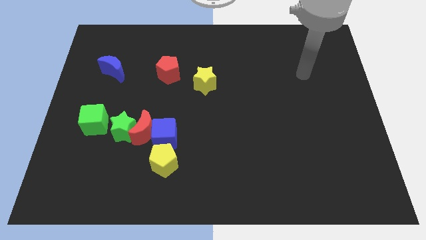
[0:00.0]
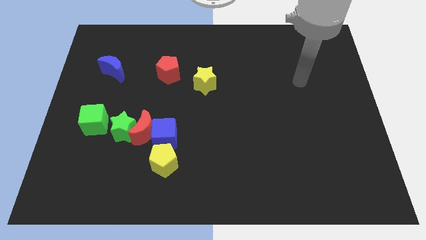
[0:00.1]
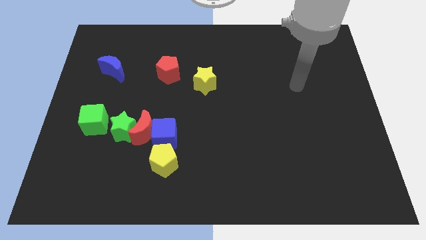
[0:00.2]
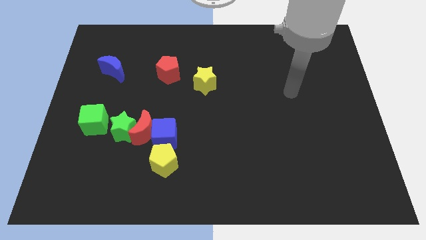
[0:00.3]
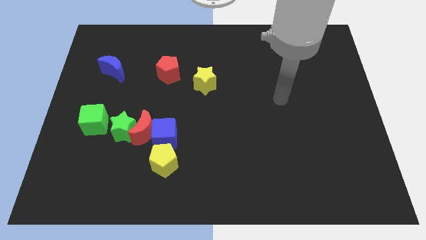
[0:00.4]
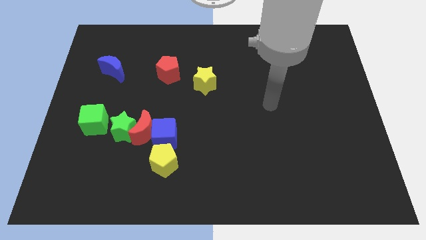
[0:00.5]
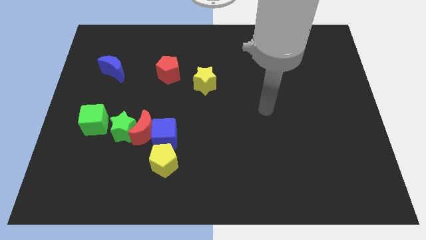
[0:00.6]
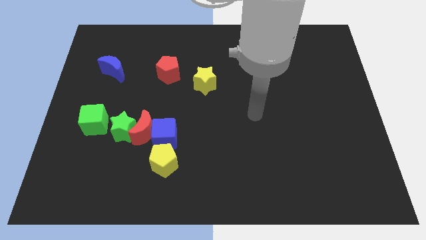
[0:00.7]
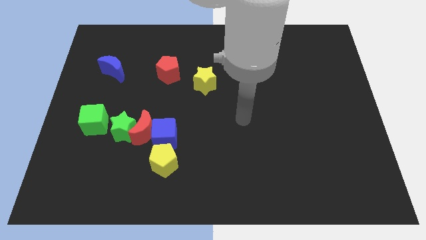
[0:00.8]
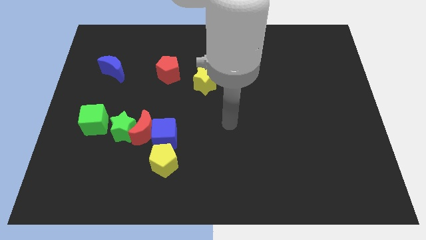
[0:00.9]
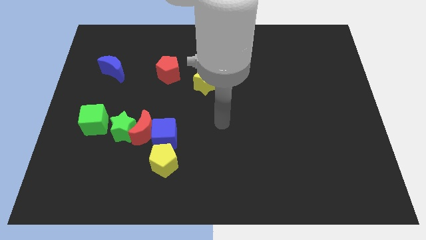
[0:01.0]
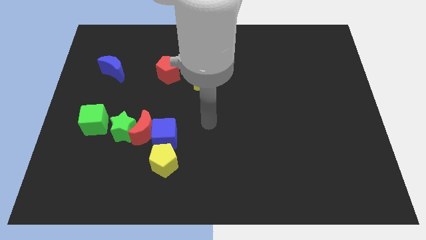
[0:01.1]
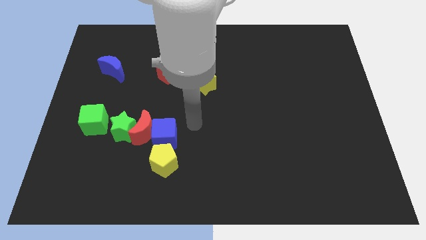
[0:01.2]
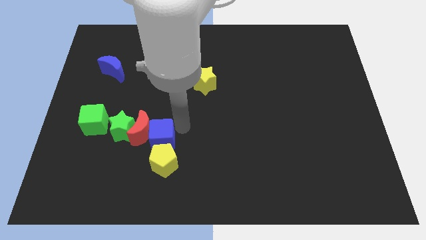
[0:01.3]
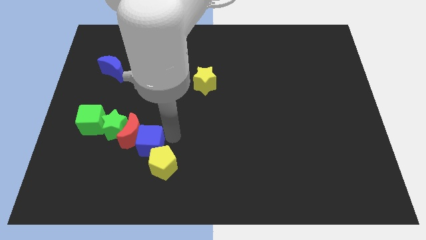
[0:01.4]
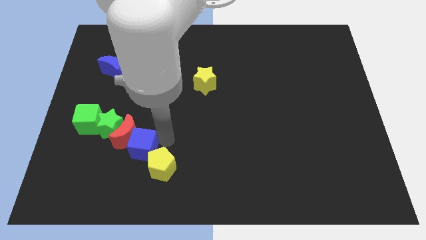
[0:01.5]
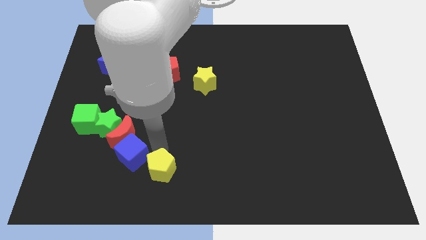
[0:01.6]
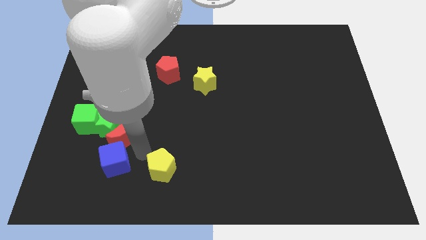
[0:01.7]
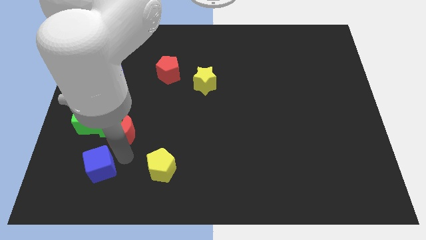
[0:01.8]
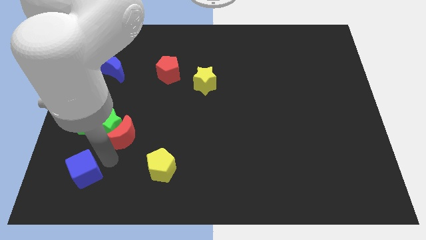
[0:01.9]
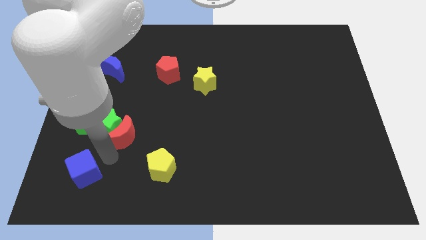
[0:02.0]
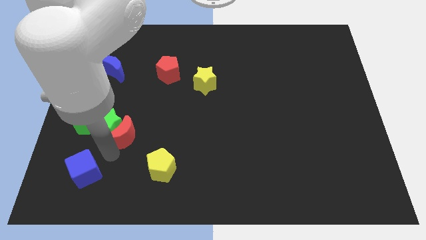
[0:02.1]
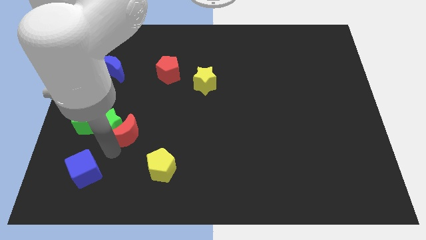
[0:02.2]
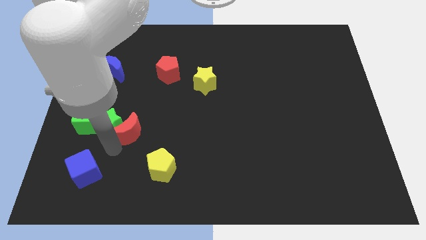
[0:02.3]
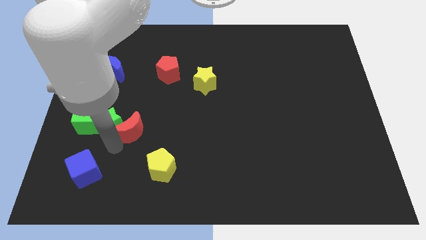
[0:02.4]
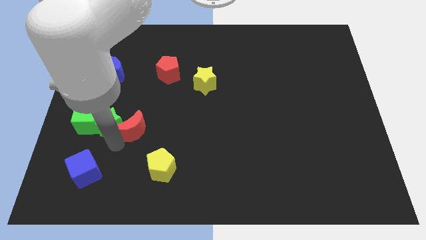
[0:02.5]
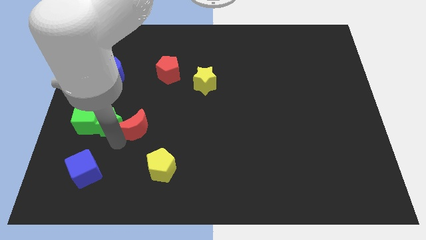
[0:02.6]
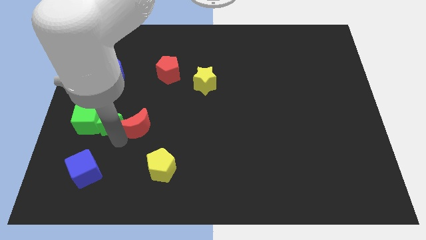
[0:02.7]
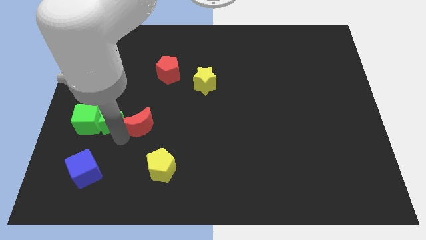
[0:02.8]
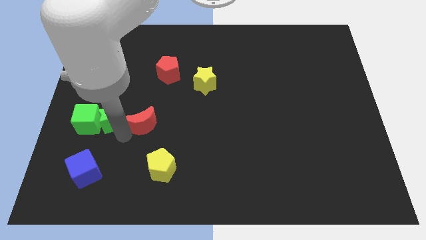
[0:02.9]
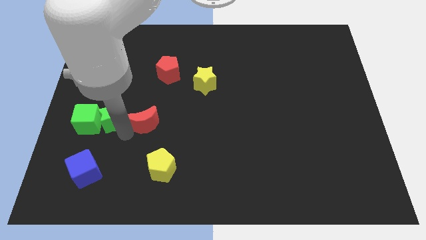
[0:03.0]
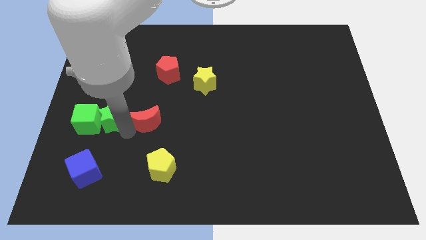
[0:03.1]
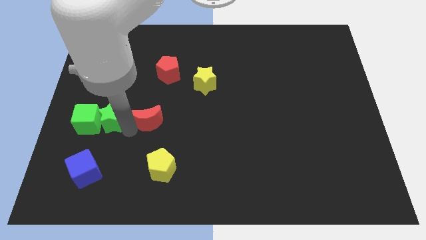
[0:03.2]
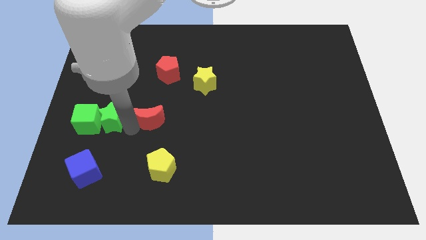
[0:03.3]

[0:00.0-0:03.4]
separate the red moon from the green star, blue cube, and yellow pentagon

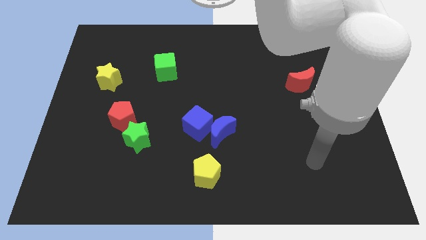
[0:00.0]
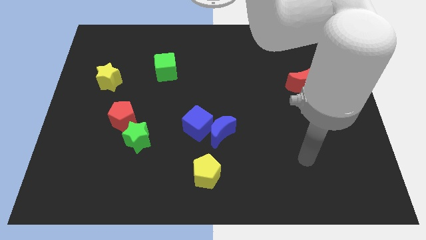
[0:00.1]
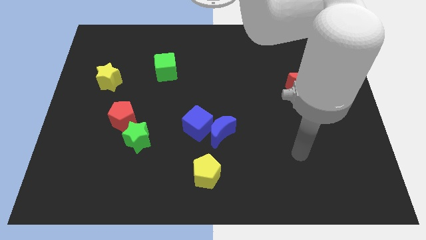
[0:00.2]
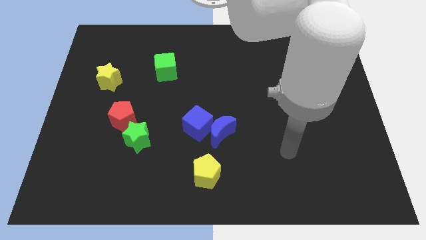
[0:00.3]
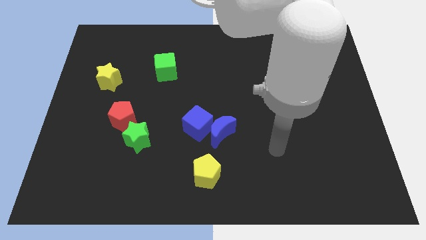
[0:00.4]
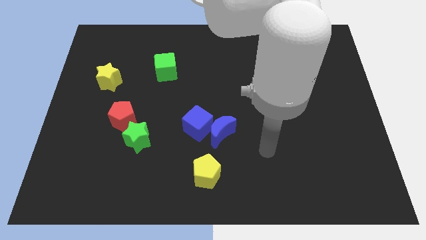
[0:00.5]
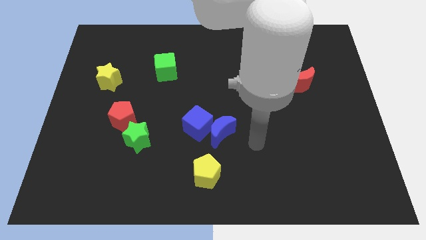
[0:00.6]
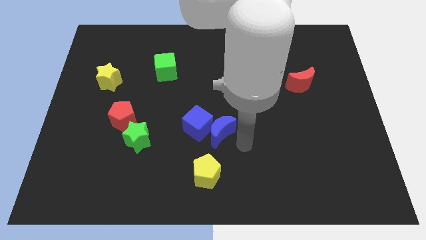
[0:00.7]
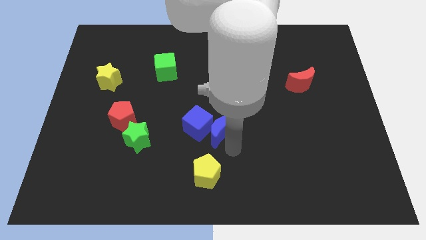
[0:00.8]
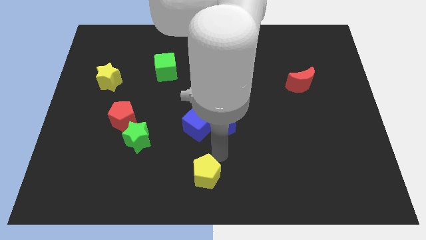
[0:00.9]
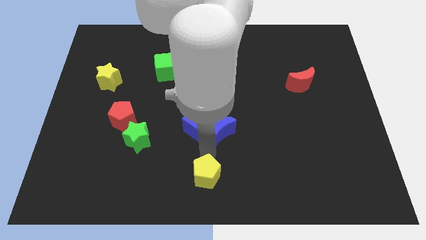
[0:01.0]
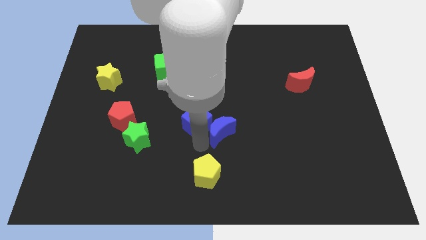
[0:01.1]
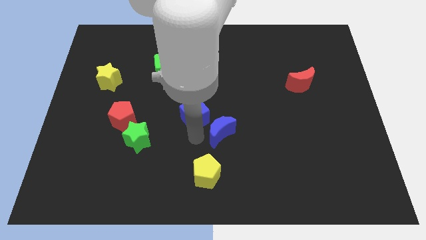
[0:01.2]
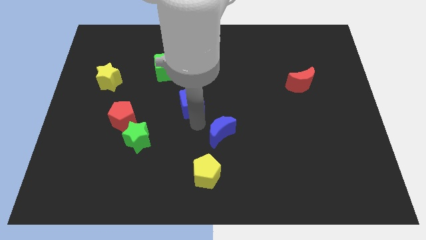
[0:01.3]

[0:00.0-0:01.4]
move the blue moon away from the blue cube

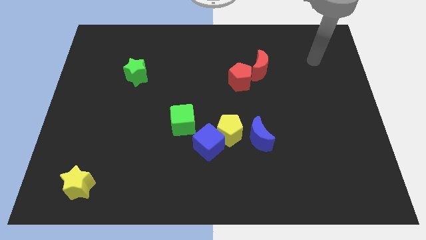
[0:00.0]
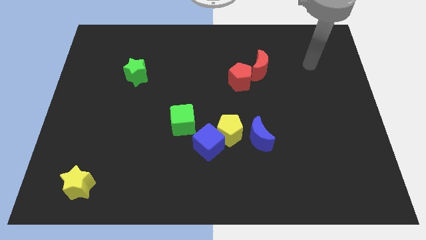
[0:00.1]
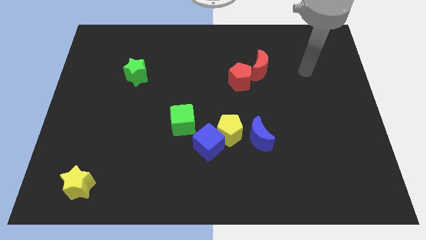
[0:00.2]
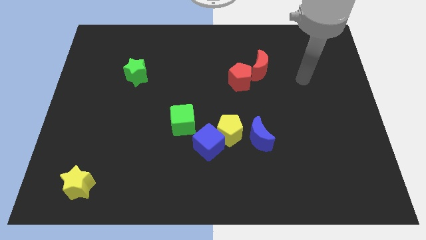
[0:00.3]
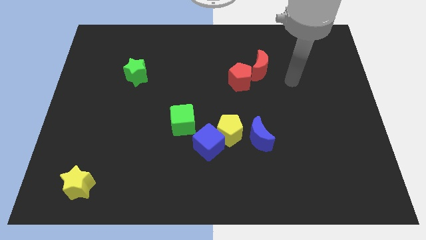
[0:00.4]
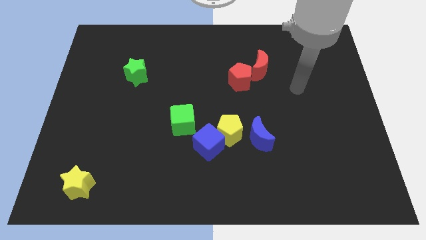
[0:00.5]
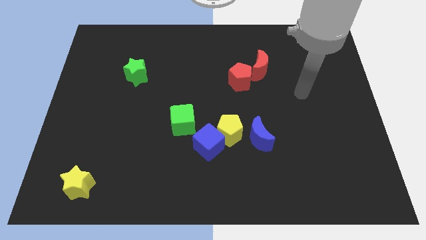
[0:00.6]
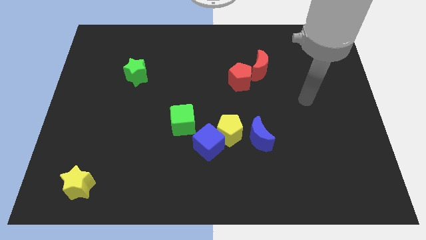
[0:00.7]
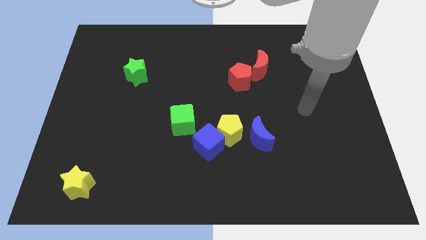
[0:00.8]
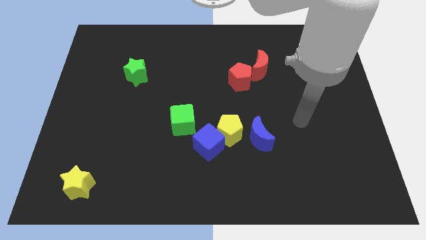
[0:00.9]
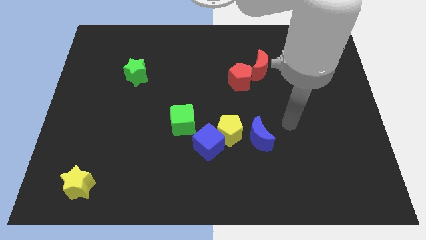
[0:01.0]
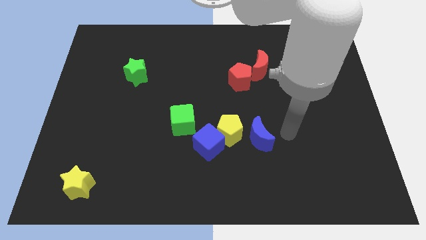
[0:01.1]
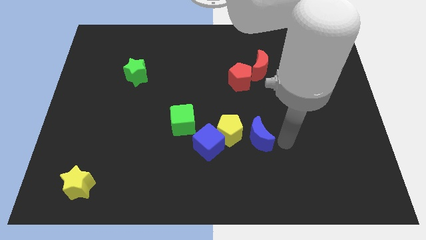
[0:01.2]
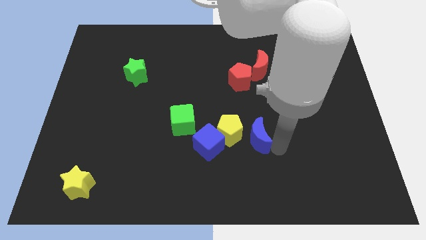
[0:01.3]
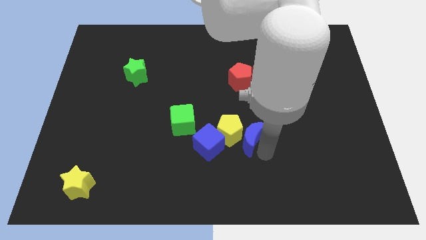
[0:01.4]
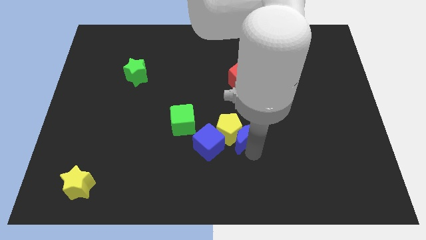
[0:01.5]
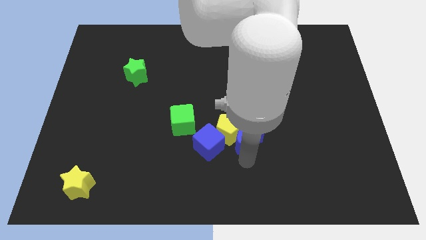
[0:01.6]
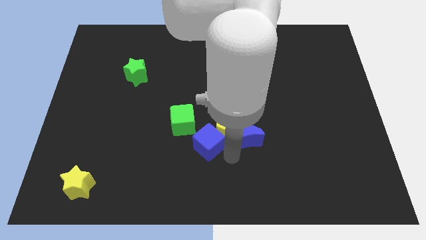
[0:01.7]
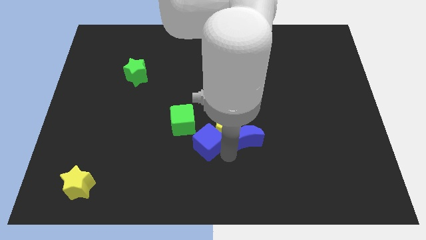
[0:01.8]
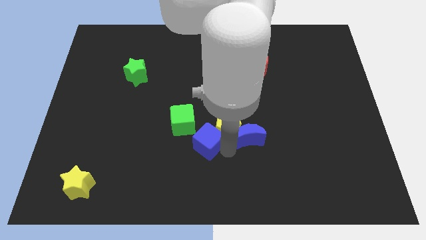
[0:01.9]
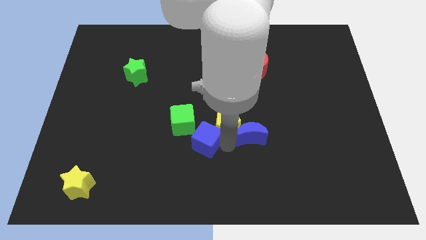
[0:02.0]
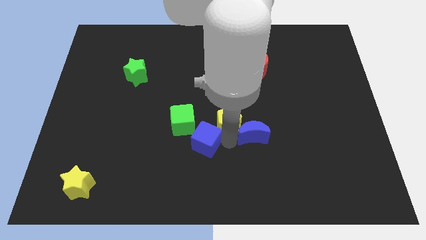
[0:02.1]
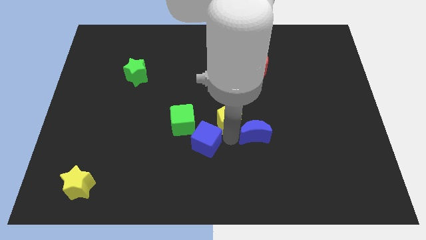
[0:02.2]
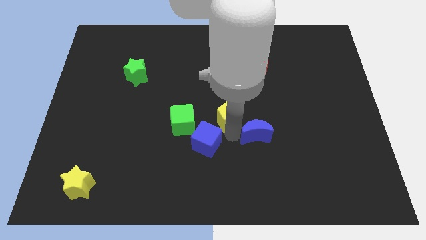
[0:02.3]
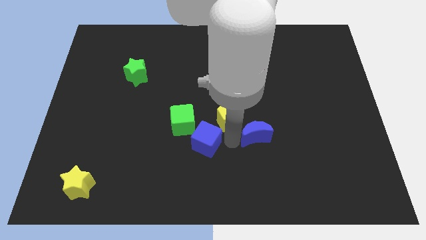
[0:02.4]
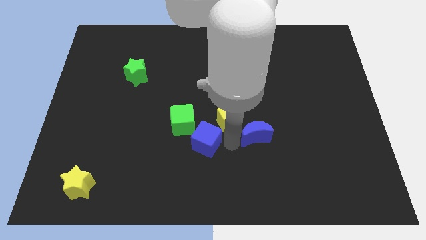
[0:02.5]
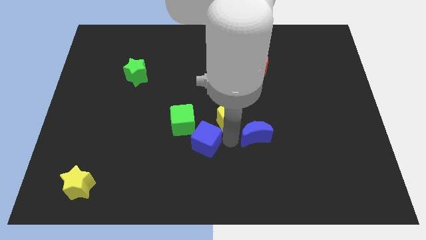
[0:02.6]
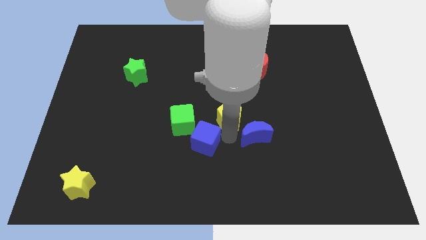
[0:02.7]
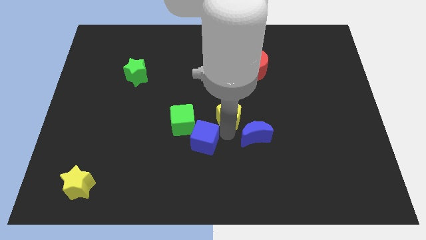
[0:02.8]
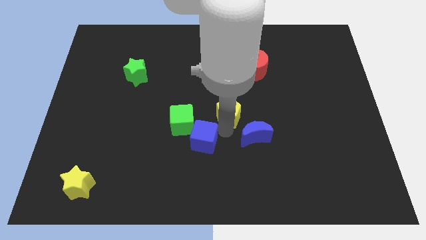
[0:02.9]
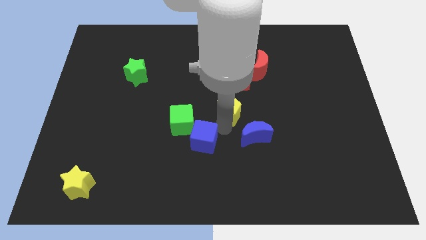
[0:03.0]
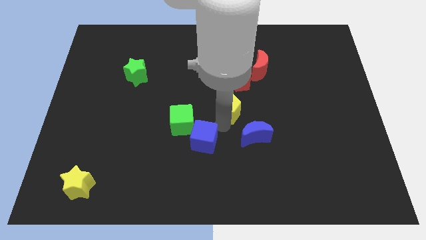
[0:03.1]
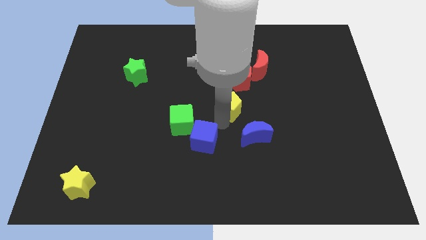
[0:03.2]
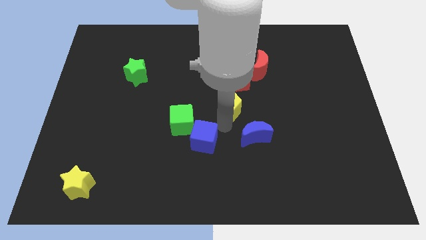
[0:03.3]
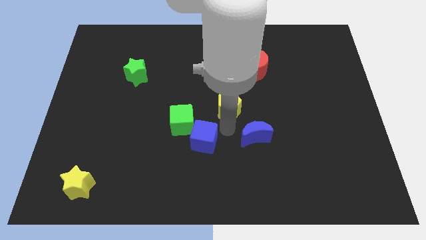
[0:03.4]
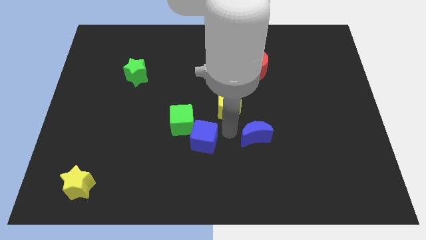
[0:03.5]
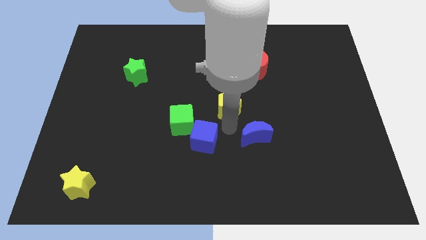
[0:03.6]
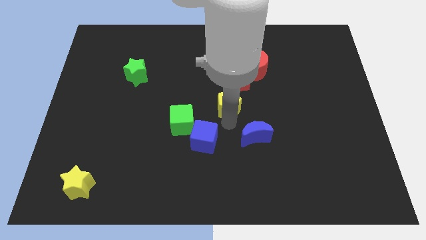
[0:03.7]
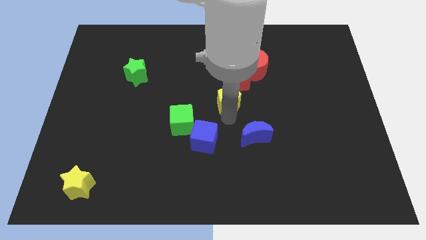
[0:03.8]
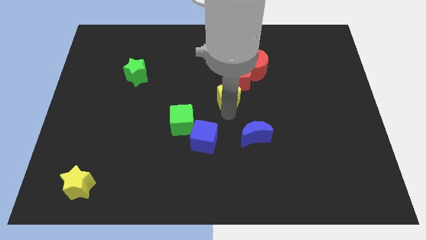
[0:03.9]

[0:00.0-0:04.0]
separate the yellow pentagon from the blue cube and blue moon

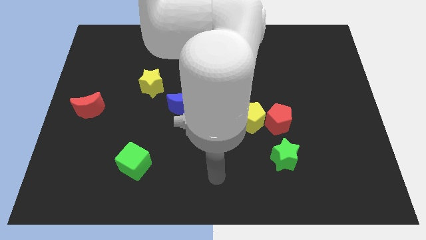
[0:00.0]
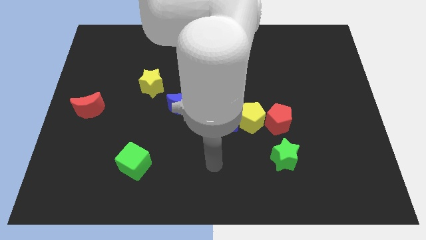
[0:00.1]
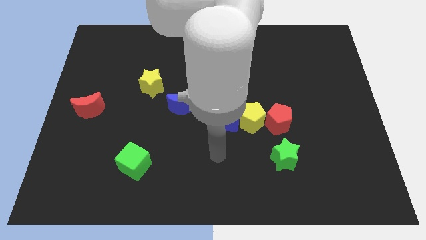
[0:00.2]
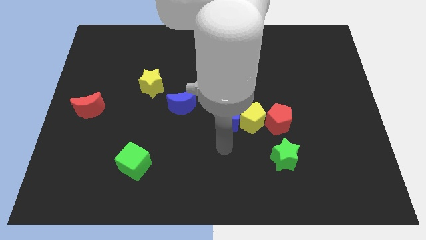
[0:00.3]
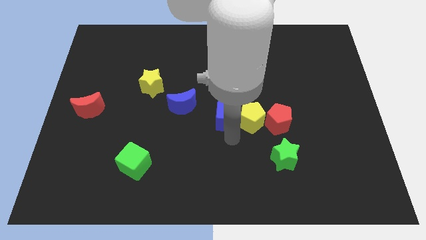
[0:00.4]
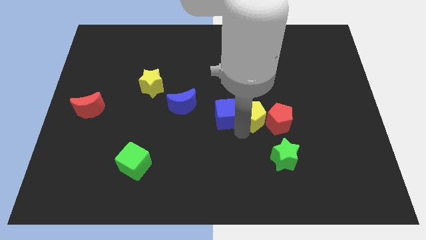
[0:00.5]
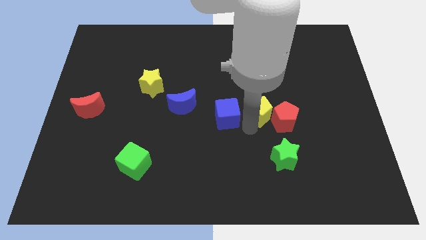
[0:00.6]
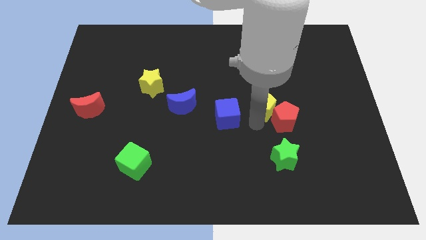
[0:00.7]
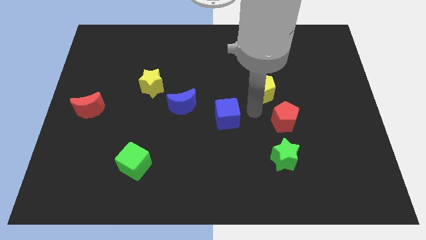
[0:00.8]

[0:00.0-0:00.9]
move the blue cube away from the yellow pentagon
